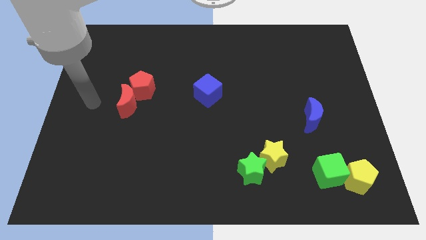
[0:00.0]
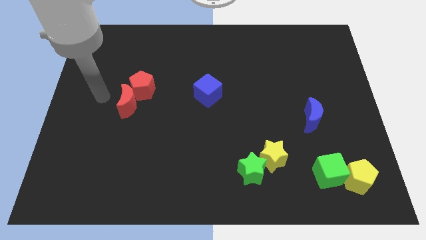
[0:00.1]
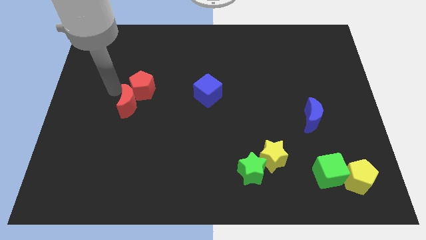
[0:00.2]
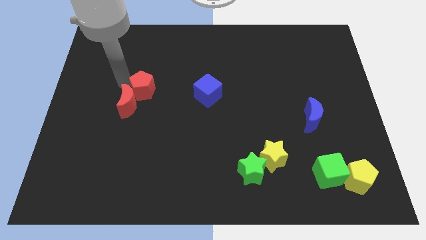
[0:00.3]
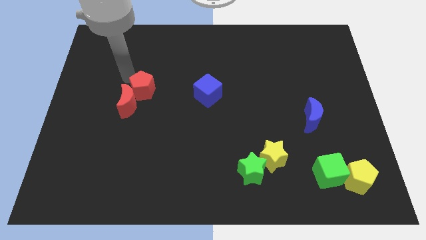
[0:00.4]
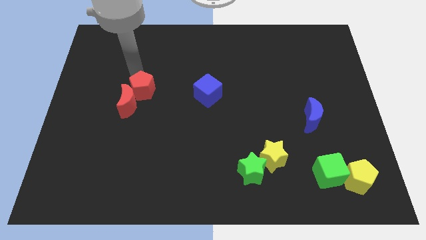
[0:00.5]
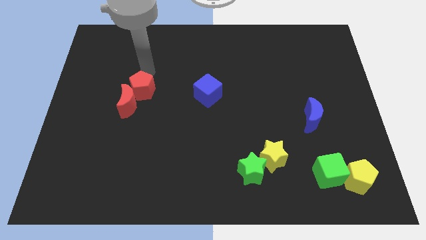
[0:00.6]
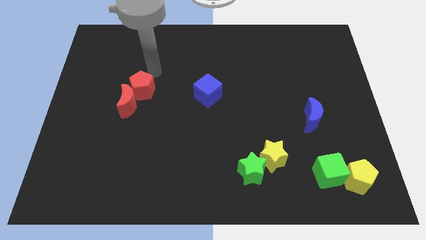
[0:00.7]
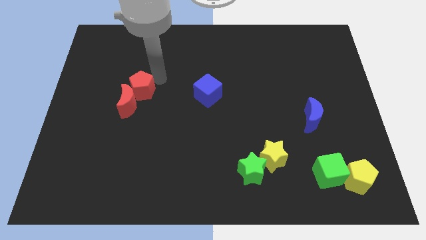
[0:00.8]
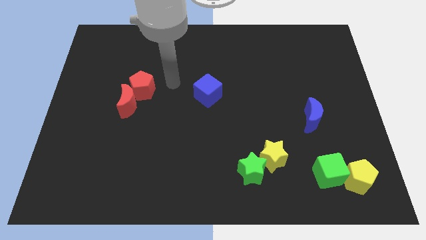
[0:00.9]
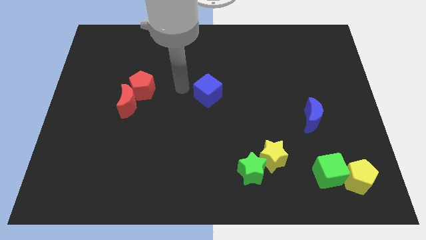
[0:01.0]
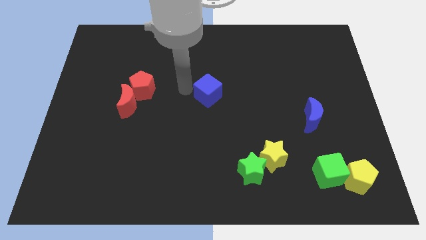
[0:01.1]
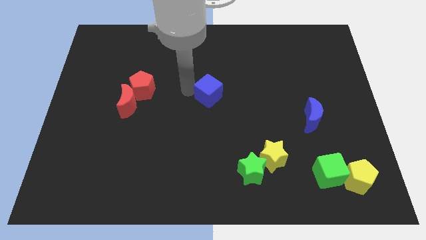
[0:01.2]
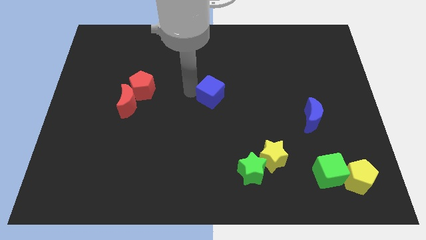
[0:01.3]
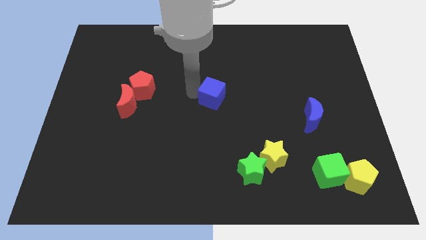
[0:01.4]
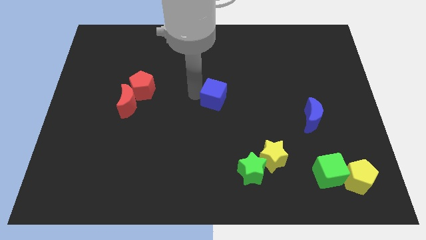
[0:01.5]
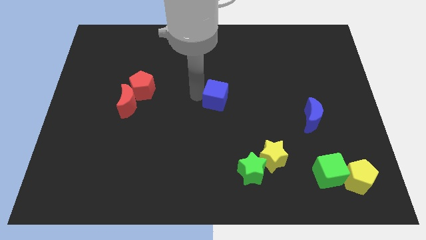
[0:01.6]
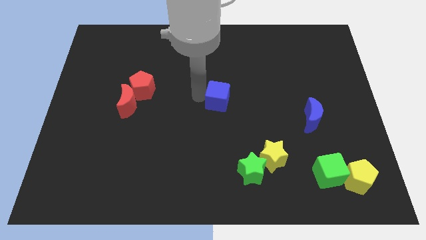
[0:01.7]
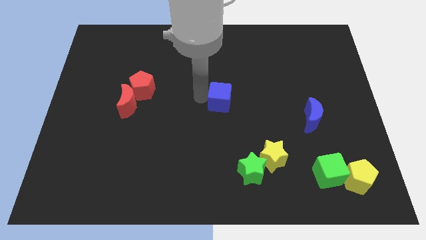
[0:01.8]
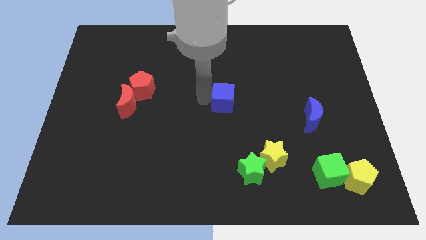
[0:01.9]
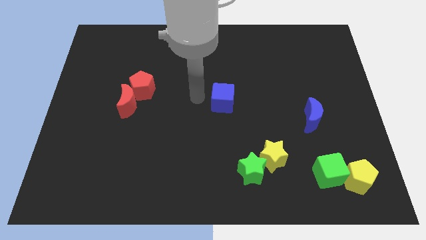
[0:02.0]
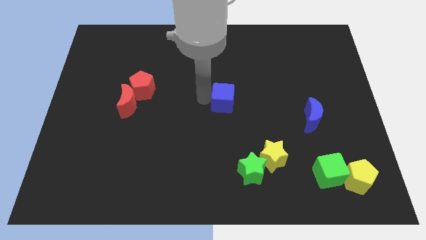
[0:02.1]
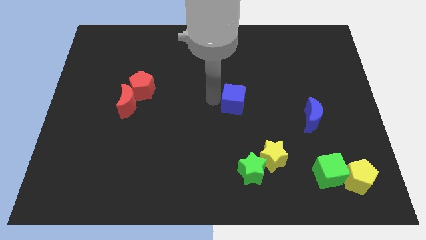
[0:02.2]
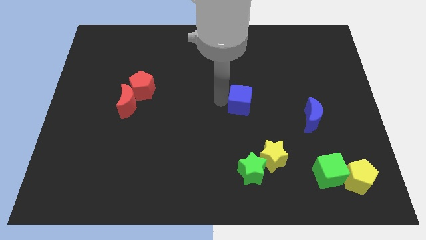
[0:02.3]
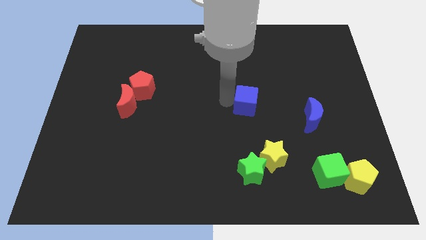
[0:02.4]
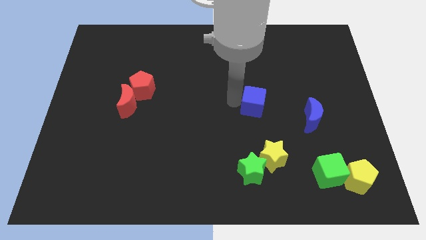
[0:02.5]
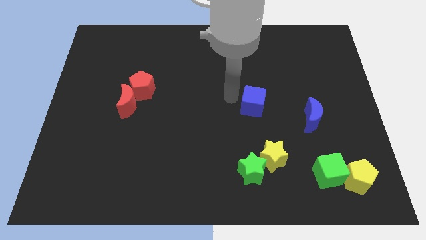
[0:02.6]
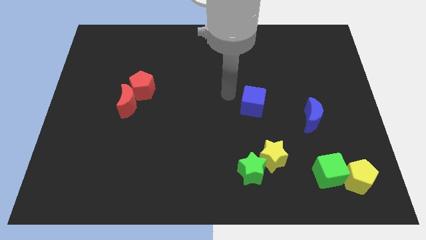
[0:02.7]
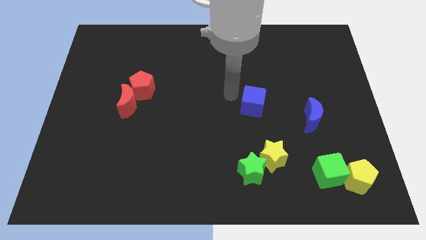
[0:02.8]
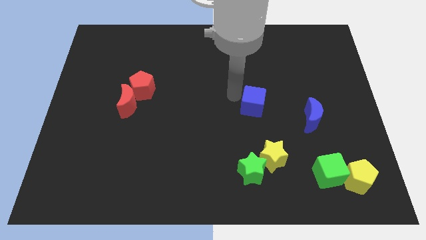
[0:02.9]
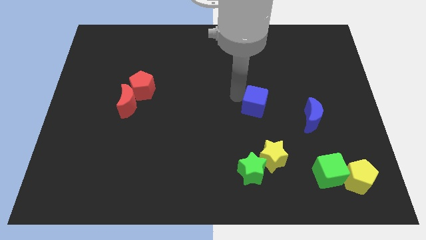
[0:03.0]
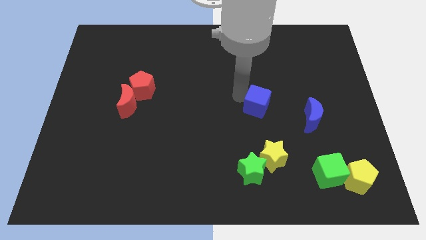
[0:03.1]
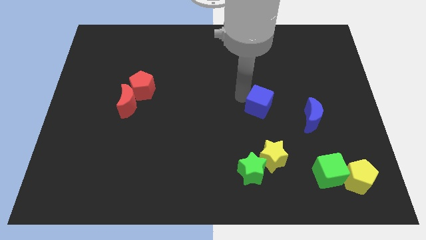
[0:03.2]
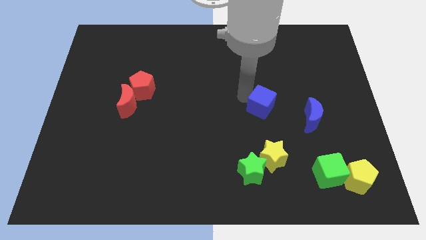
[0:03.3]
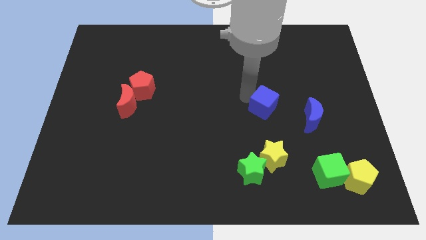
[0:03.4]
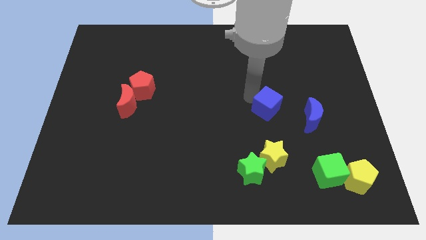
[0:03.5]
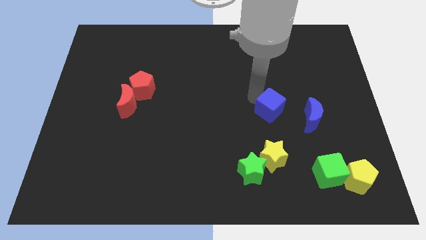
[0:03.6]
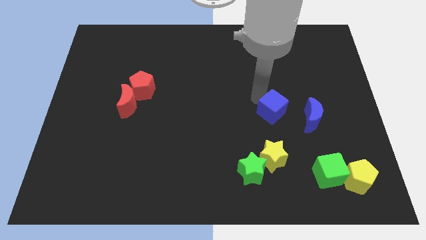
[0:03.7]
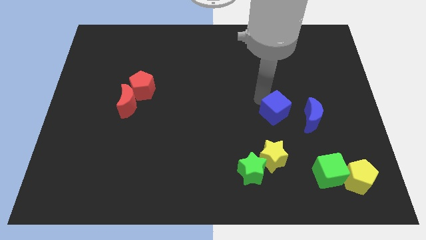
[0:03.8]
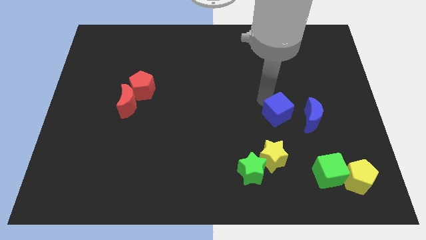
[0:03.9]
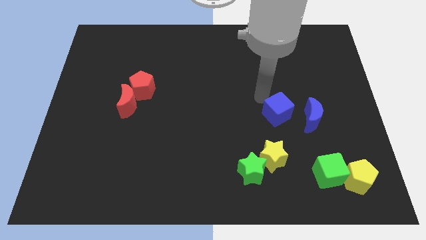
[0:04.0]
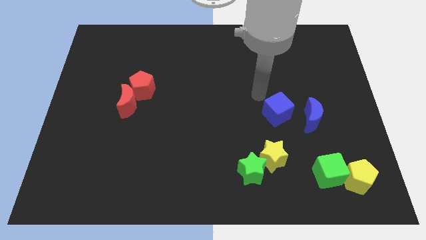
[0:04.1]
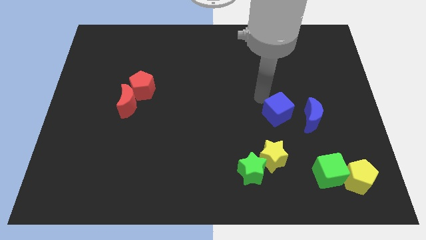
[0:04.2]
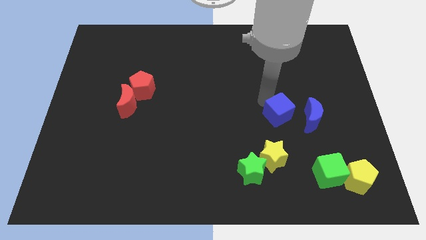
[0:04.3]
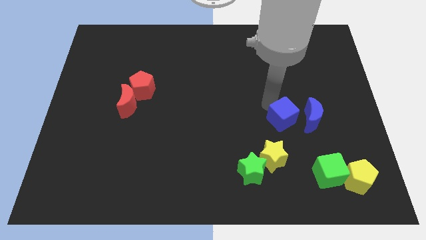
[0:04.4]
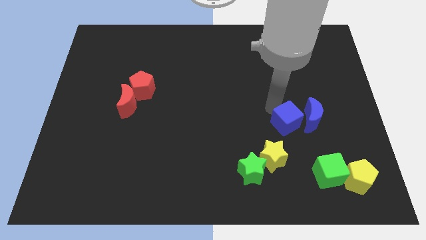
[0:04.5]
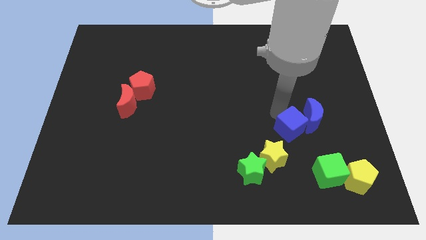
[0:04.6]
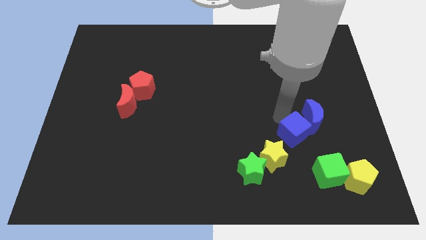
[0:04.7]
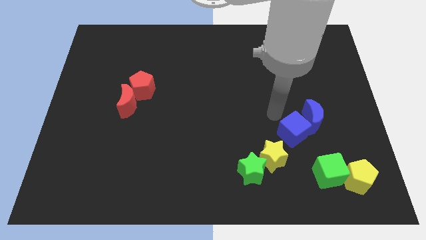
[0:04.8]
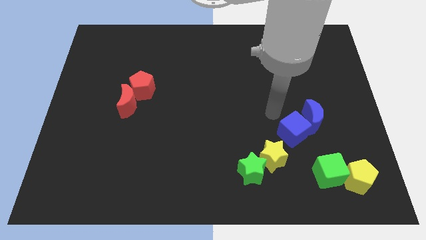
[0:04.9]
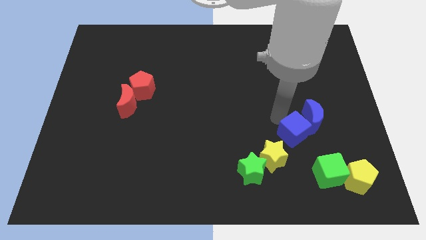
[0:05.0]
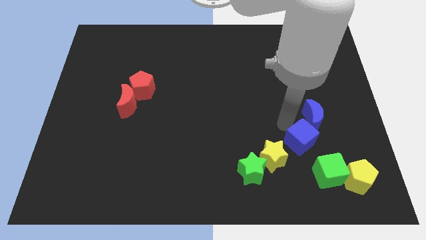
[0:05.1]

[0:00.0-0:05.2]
slide the blue cube to the right side of the yellow star

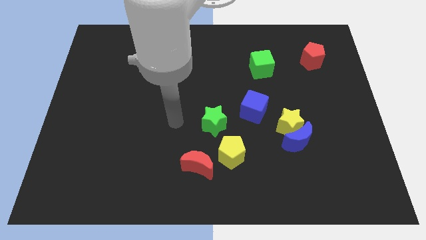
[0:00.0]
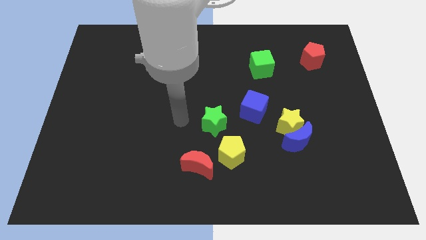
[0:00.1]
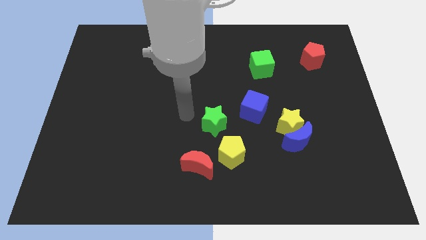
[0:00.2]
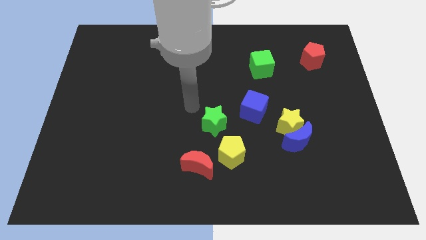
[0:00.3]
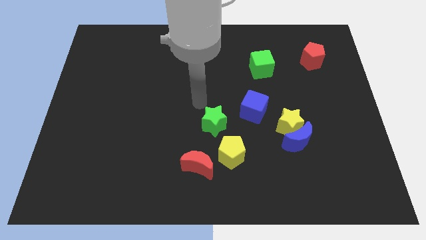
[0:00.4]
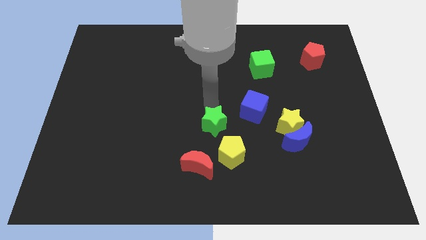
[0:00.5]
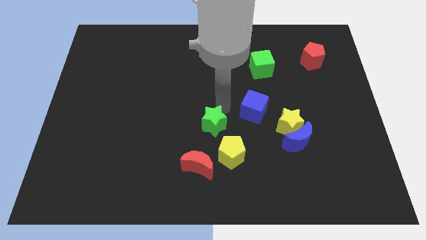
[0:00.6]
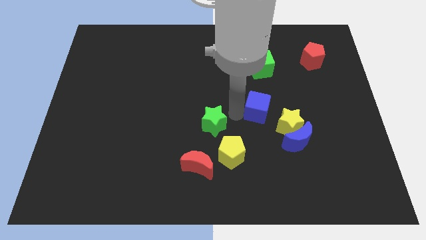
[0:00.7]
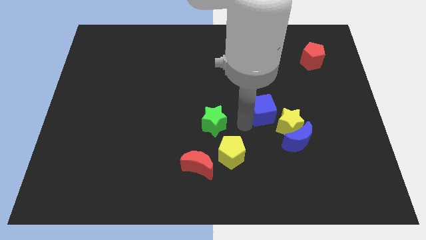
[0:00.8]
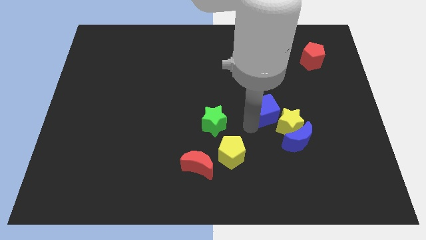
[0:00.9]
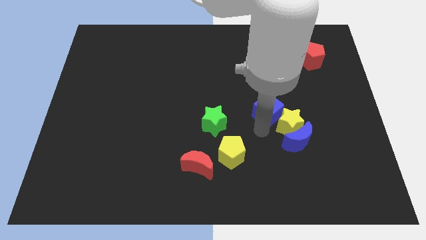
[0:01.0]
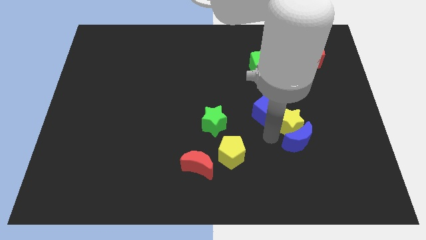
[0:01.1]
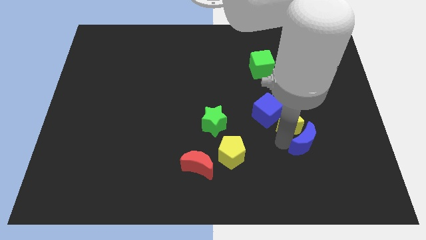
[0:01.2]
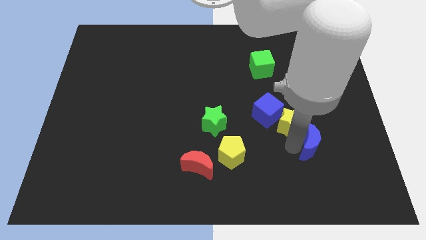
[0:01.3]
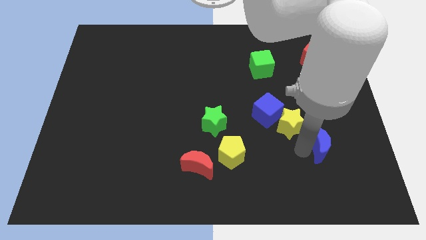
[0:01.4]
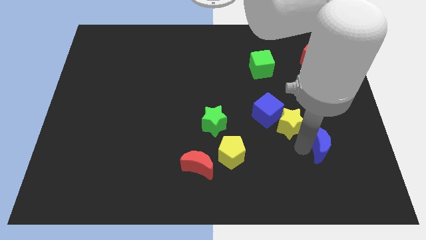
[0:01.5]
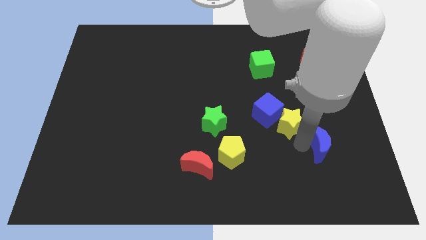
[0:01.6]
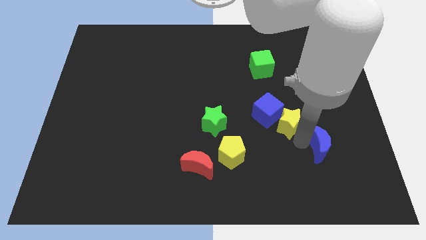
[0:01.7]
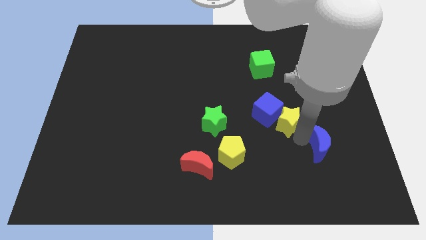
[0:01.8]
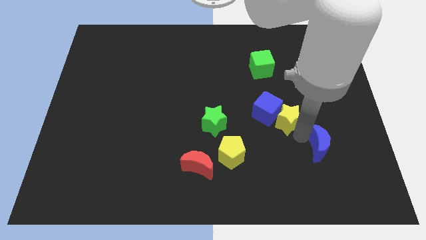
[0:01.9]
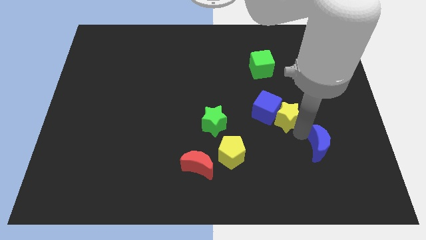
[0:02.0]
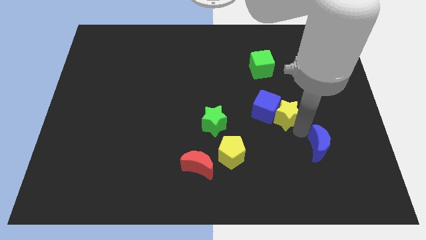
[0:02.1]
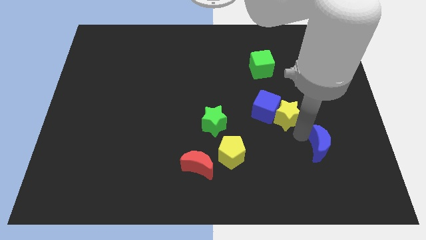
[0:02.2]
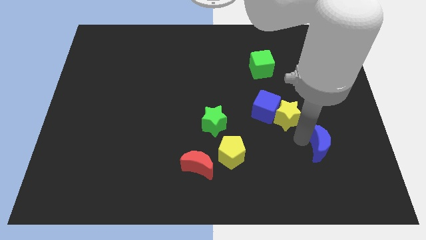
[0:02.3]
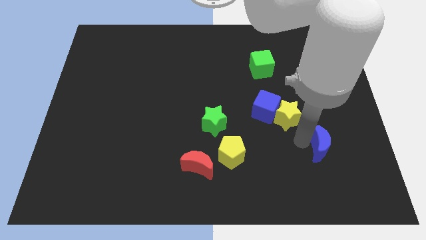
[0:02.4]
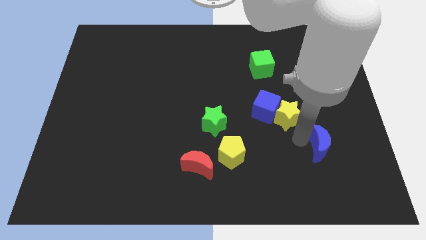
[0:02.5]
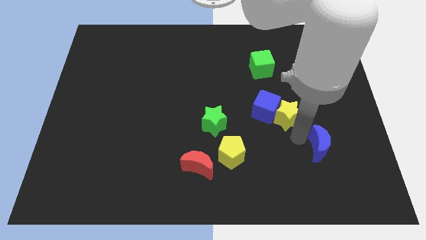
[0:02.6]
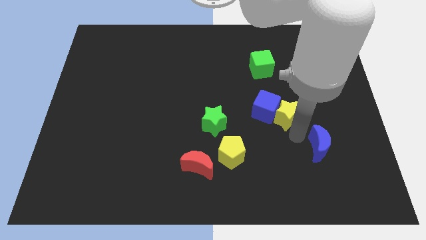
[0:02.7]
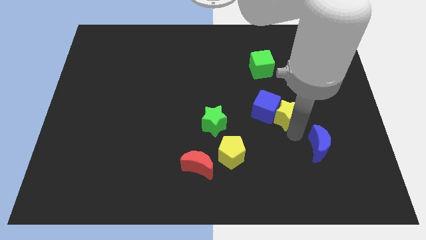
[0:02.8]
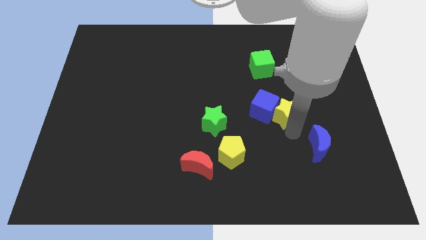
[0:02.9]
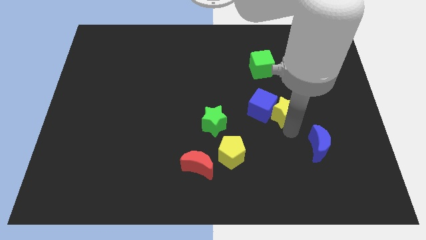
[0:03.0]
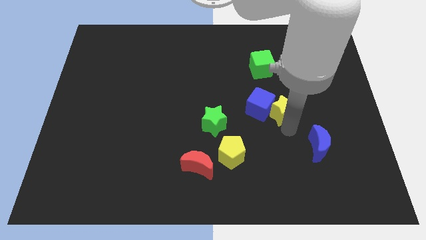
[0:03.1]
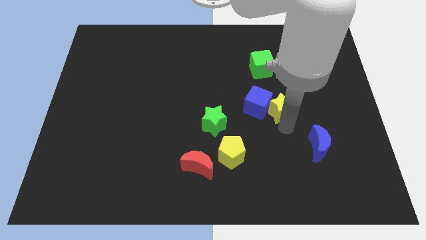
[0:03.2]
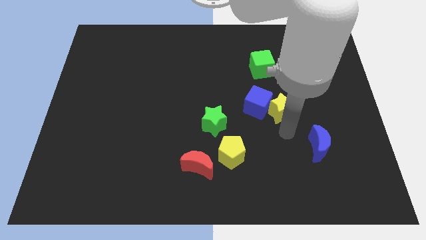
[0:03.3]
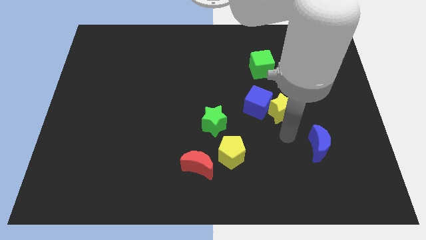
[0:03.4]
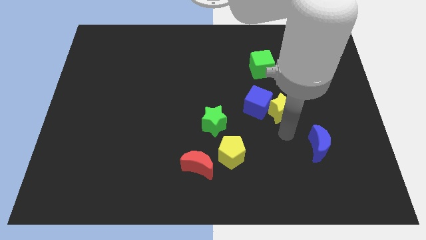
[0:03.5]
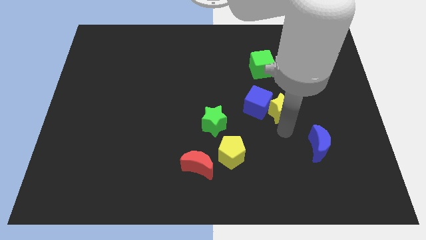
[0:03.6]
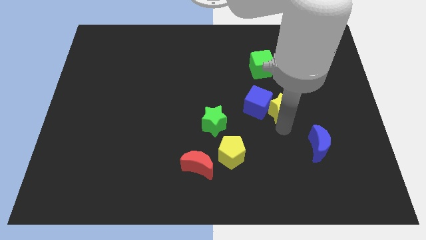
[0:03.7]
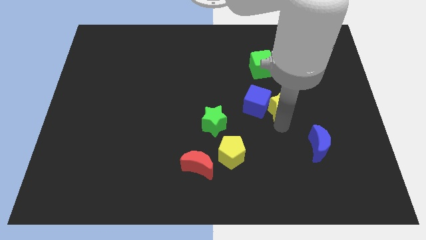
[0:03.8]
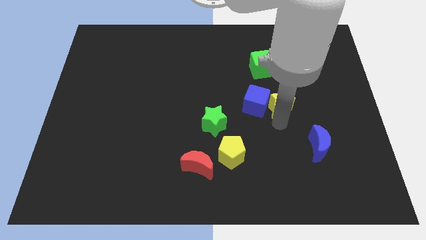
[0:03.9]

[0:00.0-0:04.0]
push the yellow star to the top right side of the blue cube
